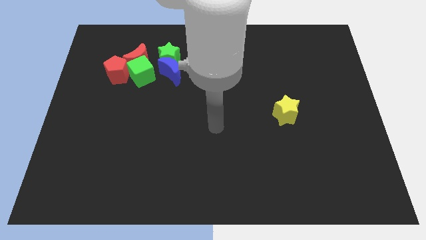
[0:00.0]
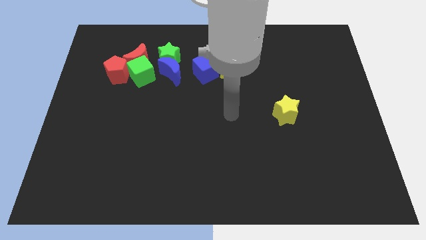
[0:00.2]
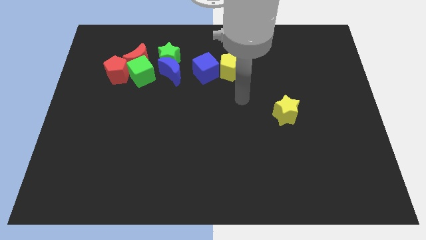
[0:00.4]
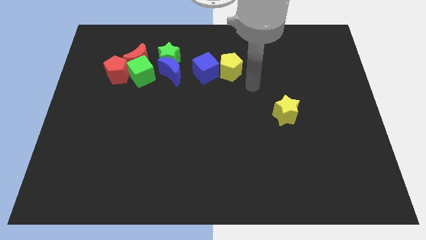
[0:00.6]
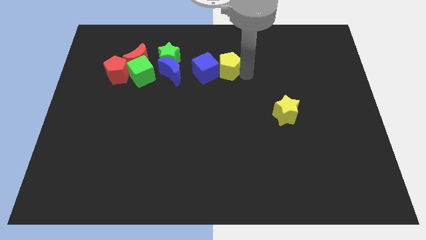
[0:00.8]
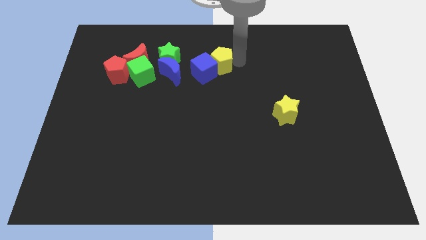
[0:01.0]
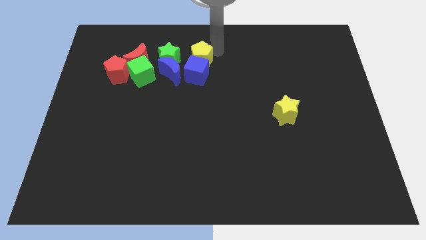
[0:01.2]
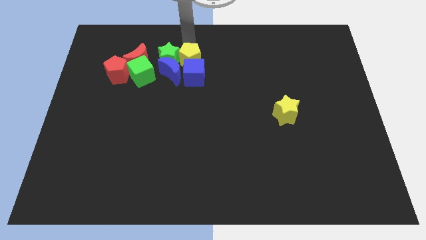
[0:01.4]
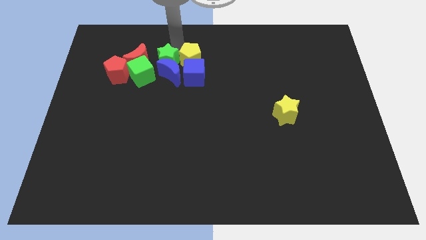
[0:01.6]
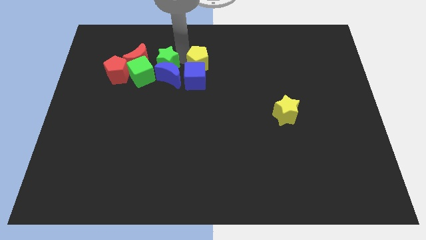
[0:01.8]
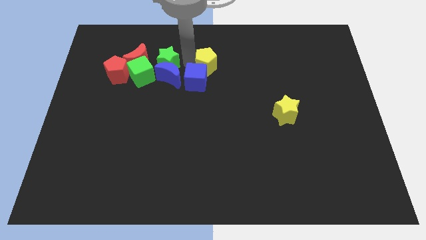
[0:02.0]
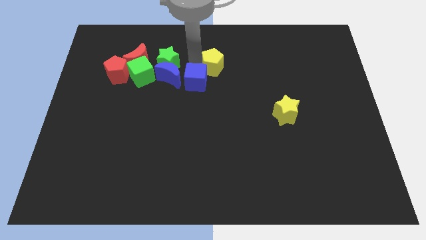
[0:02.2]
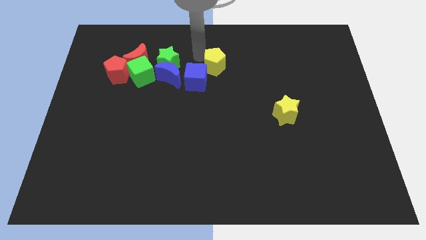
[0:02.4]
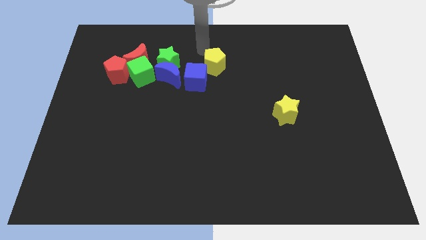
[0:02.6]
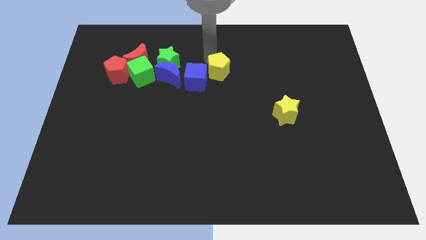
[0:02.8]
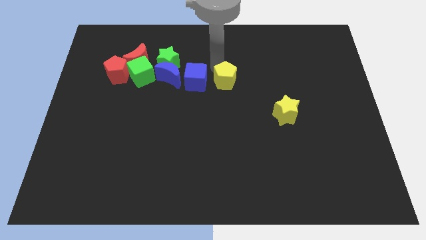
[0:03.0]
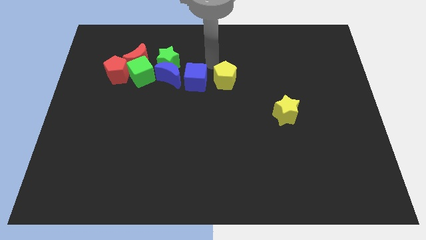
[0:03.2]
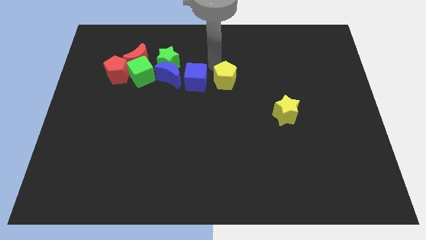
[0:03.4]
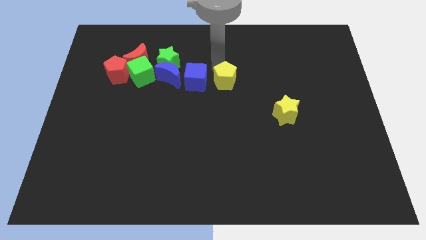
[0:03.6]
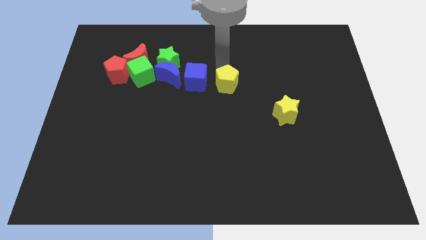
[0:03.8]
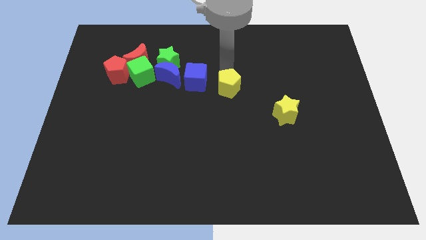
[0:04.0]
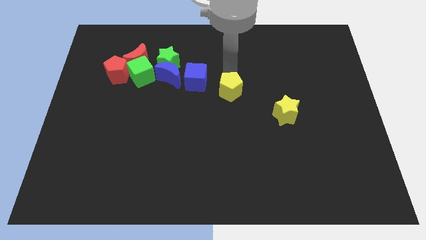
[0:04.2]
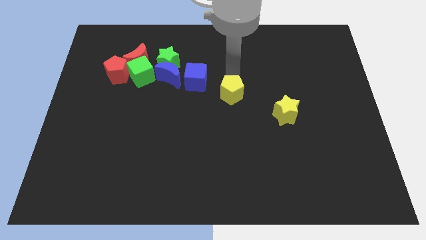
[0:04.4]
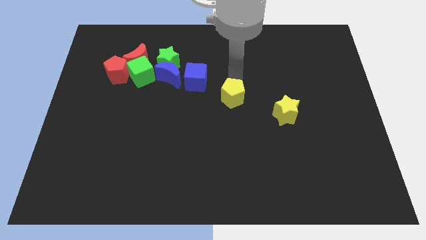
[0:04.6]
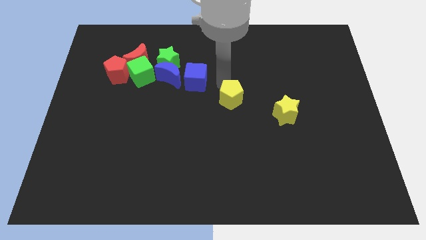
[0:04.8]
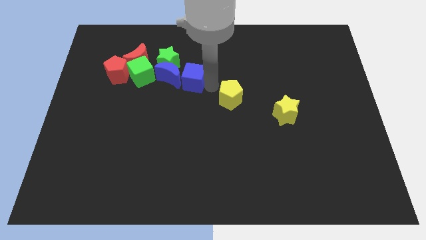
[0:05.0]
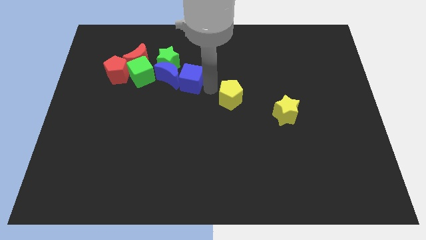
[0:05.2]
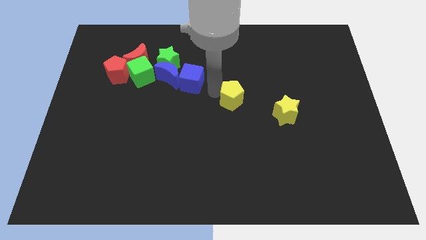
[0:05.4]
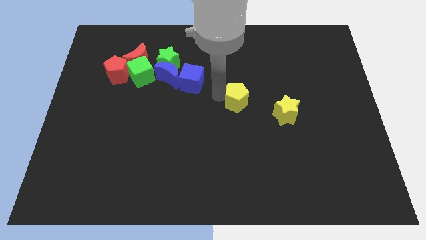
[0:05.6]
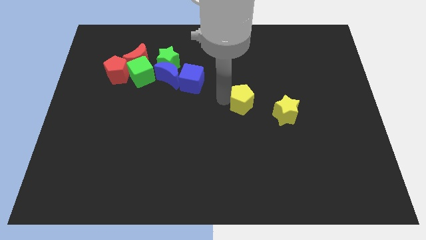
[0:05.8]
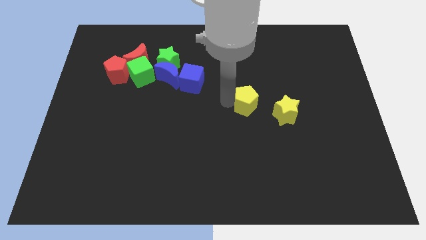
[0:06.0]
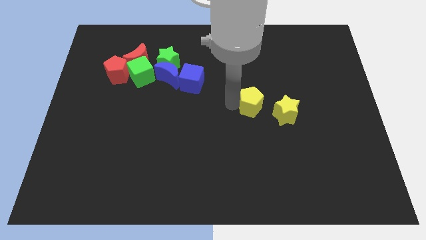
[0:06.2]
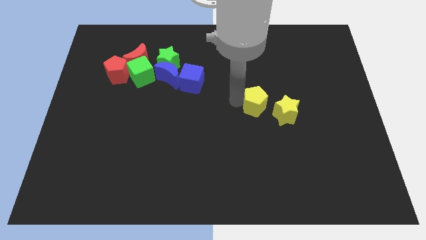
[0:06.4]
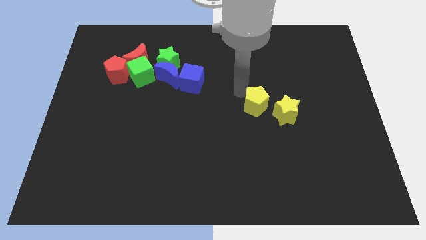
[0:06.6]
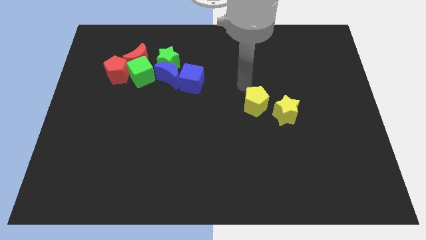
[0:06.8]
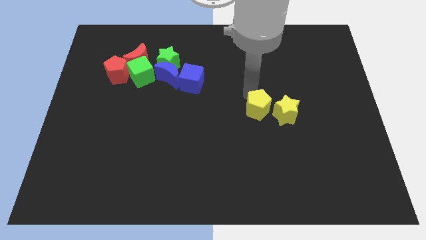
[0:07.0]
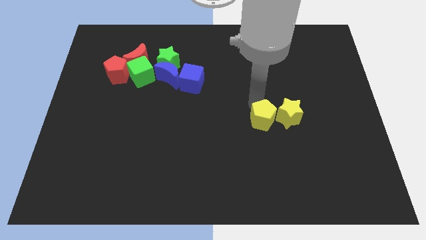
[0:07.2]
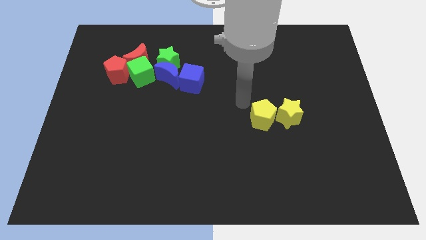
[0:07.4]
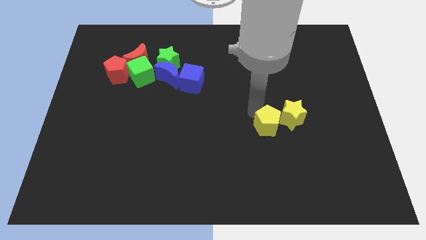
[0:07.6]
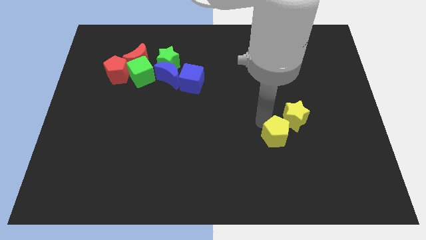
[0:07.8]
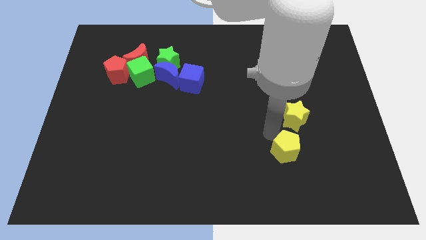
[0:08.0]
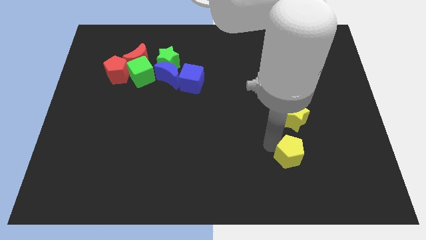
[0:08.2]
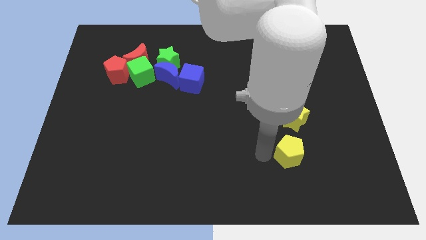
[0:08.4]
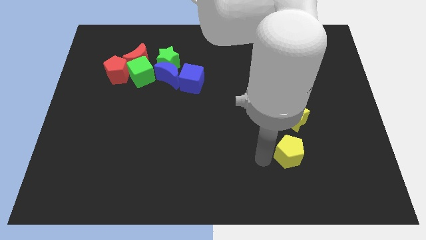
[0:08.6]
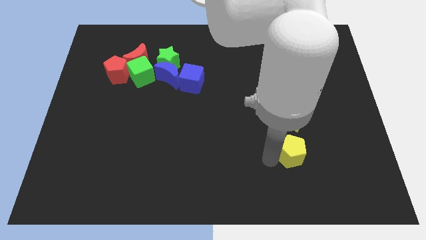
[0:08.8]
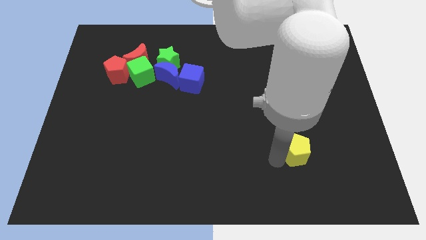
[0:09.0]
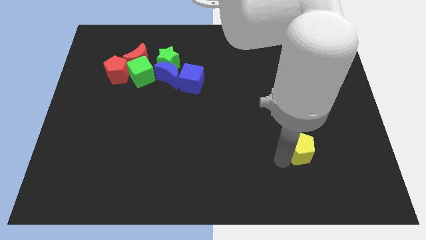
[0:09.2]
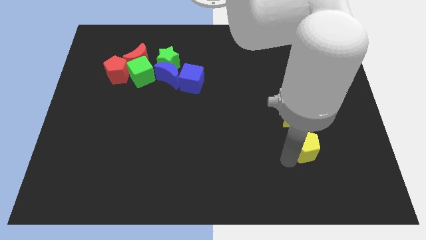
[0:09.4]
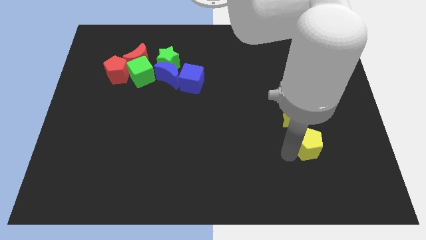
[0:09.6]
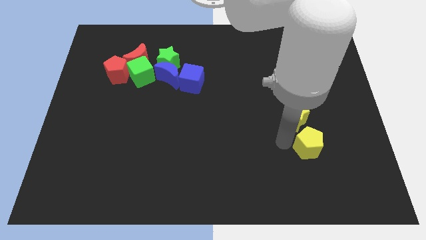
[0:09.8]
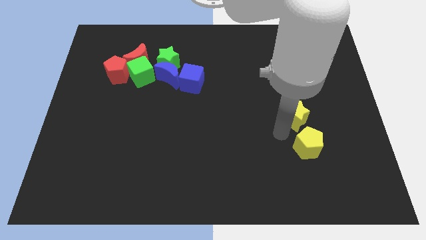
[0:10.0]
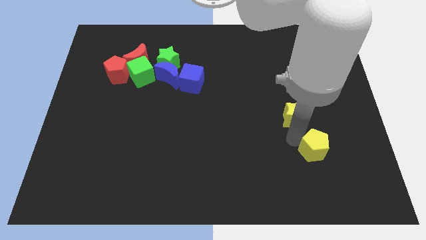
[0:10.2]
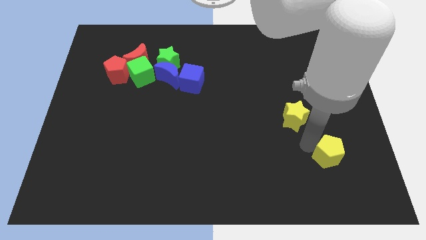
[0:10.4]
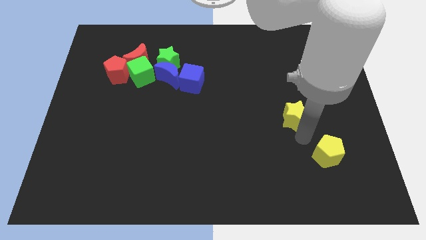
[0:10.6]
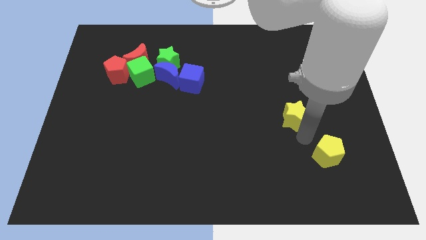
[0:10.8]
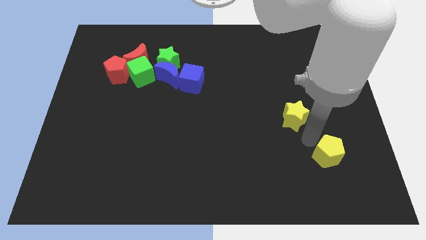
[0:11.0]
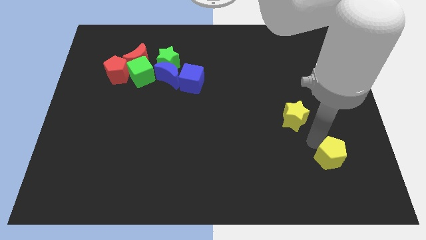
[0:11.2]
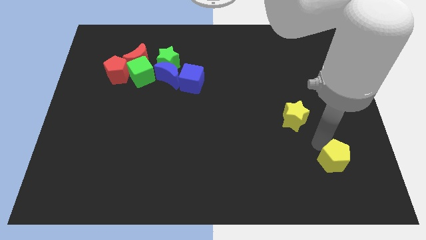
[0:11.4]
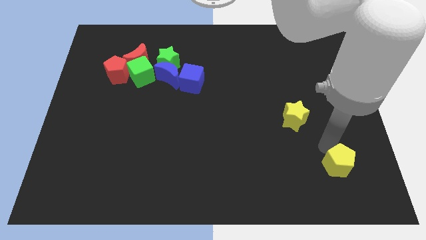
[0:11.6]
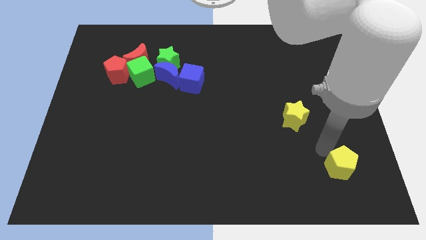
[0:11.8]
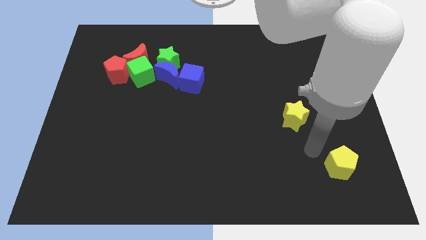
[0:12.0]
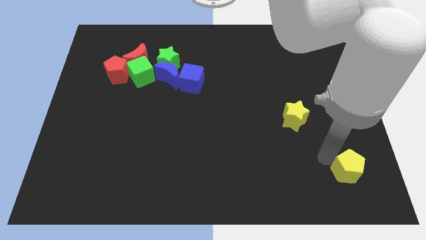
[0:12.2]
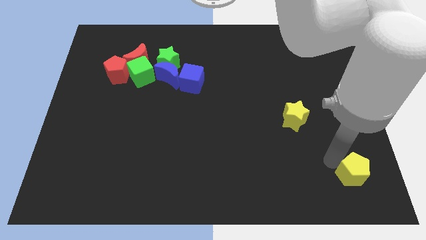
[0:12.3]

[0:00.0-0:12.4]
move the yellow pentagon to the bottom right of the board

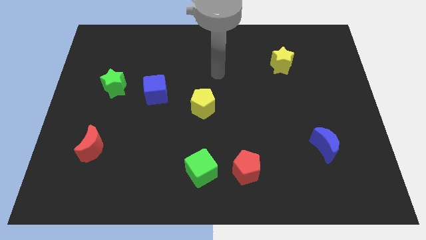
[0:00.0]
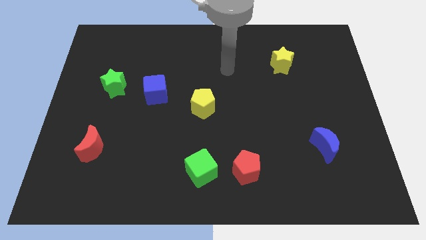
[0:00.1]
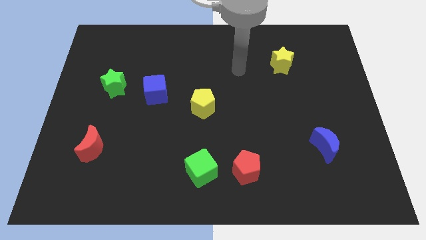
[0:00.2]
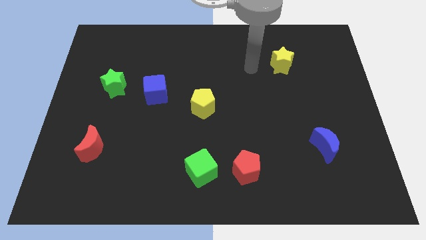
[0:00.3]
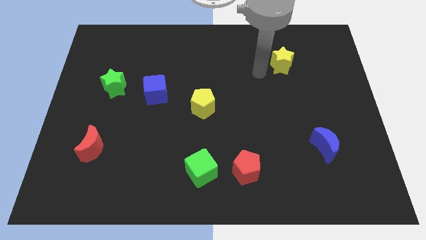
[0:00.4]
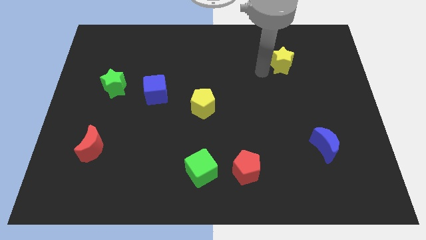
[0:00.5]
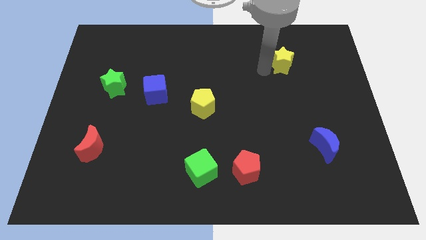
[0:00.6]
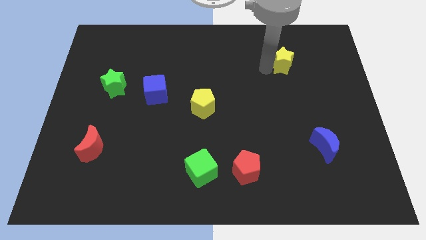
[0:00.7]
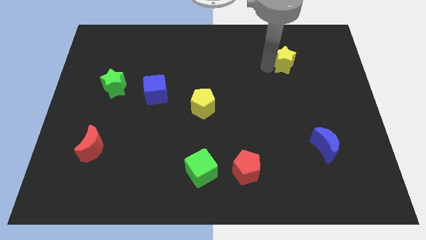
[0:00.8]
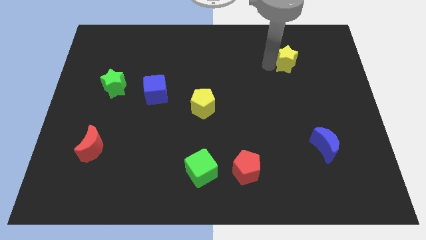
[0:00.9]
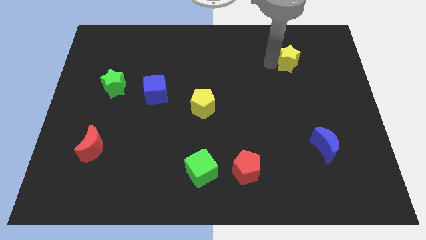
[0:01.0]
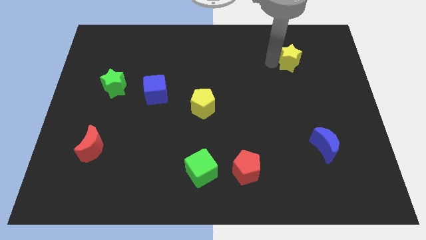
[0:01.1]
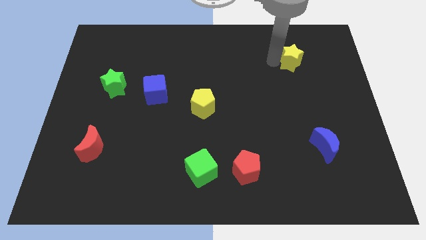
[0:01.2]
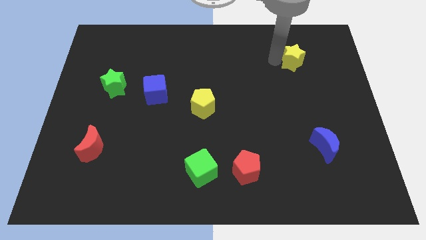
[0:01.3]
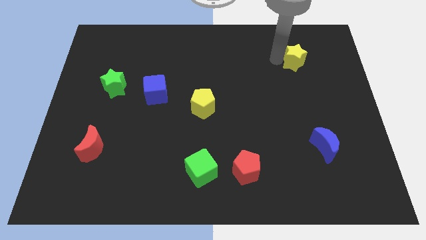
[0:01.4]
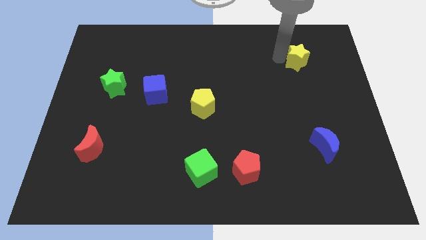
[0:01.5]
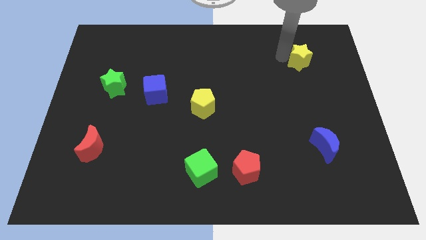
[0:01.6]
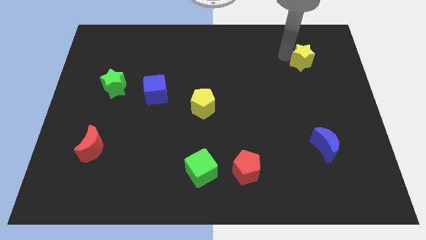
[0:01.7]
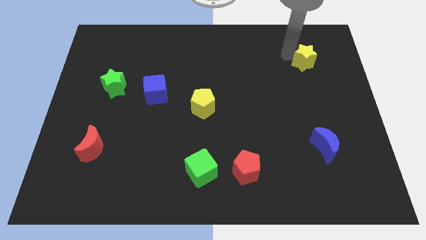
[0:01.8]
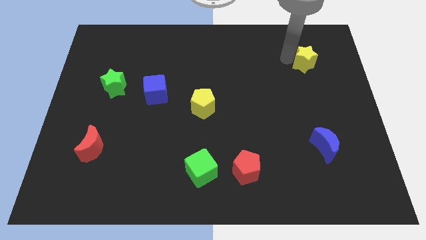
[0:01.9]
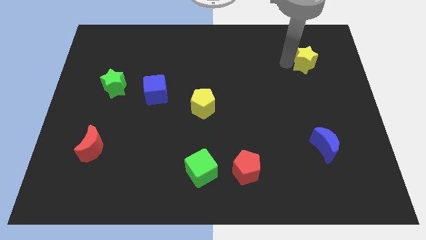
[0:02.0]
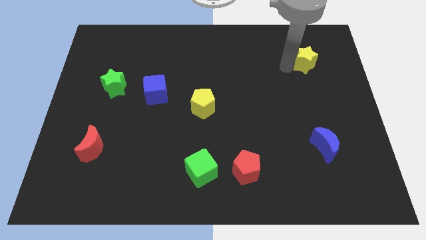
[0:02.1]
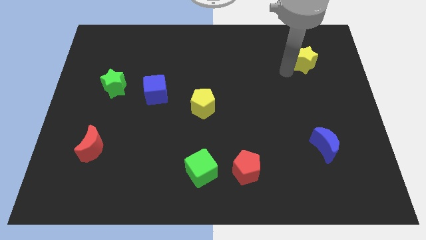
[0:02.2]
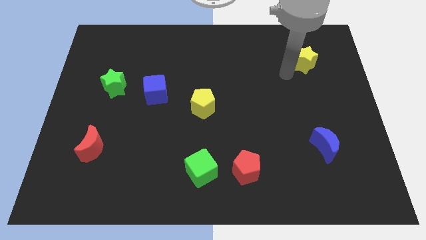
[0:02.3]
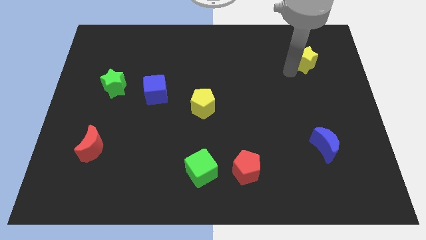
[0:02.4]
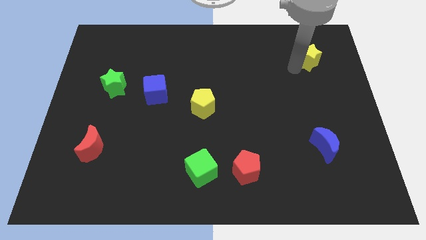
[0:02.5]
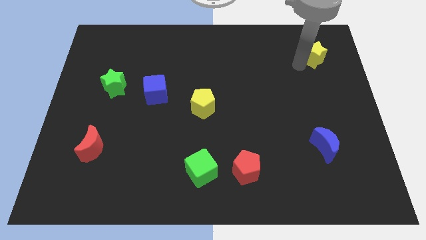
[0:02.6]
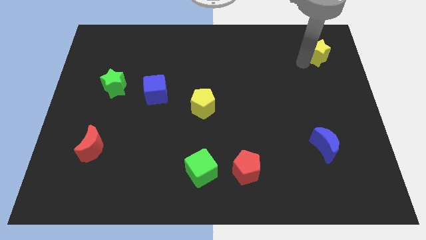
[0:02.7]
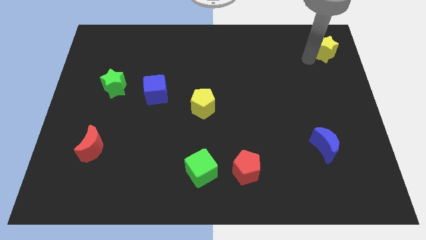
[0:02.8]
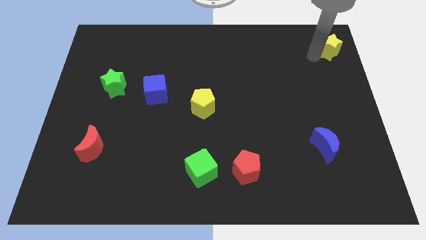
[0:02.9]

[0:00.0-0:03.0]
slide the yellow star to the upper right corner
